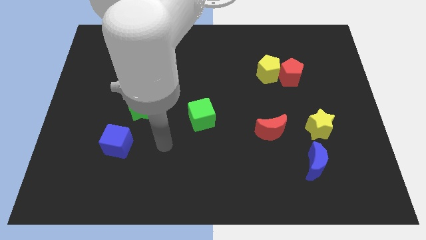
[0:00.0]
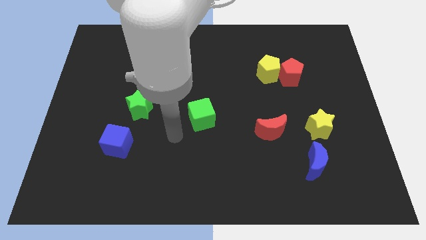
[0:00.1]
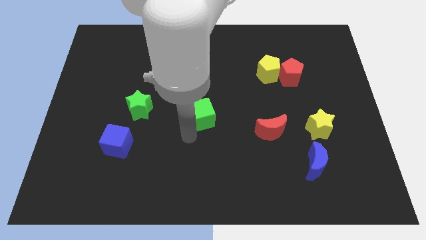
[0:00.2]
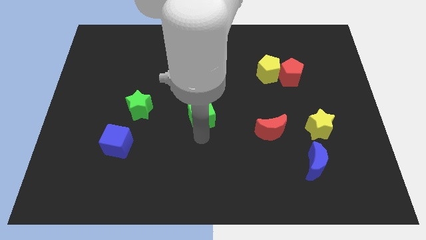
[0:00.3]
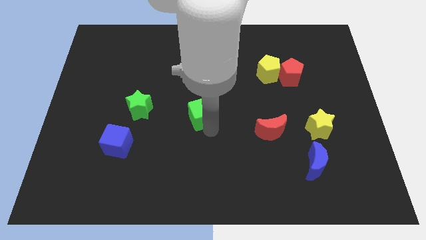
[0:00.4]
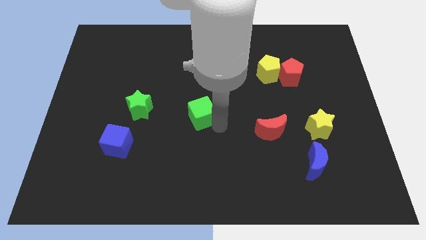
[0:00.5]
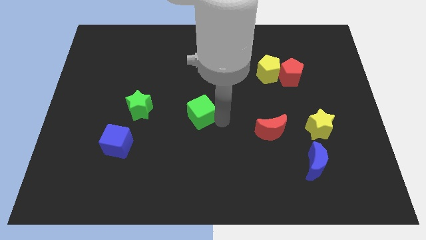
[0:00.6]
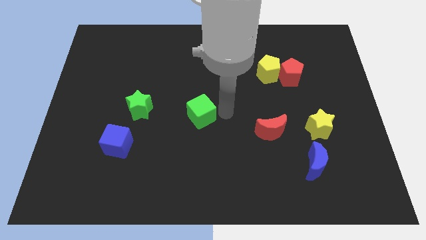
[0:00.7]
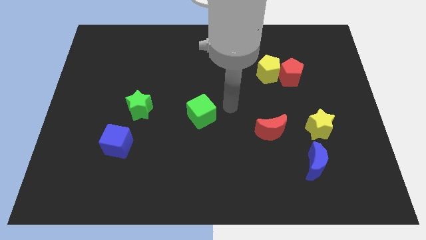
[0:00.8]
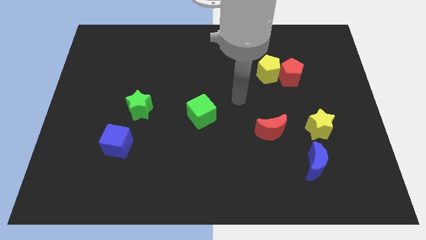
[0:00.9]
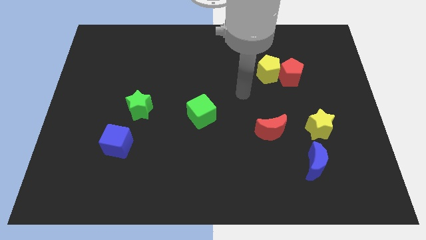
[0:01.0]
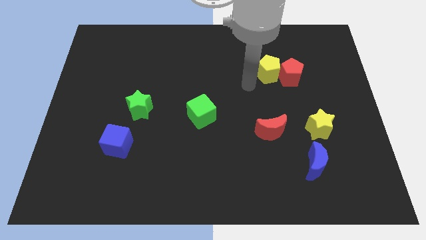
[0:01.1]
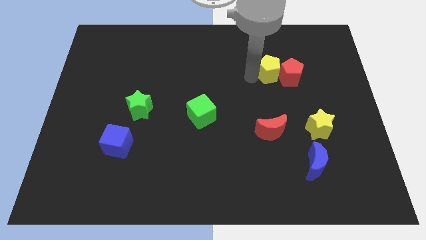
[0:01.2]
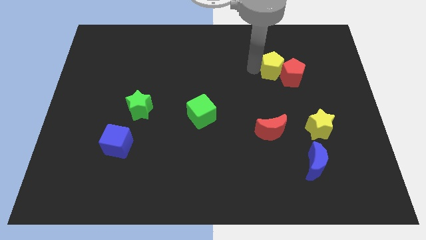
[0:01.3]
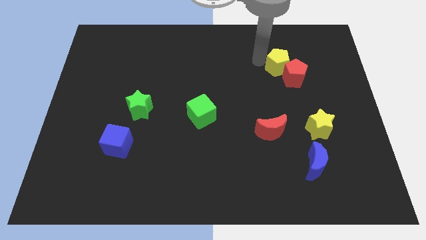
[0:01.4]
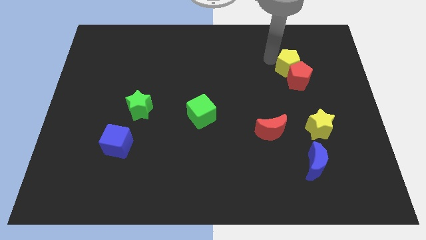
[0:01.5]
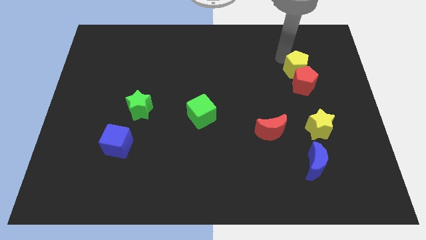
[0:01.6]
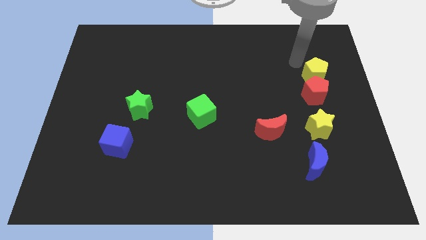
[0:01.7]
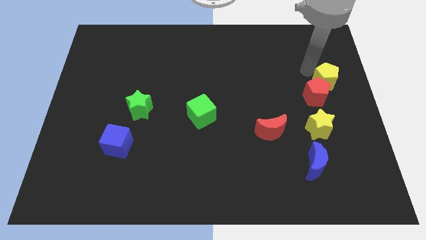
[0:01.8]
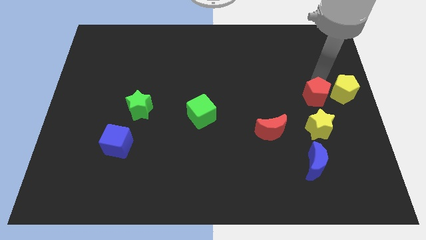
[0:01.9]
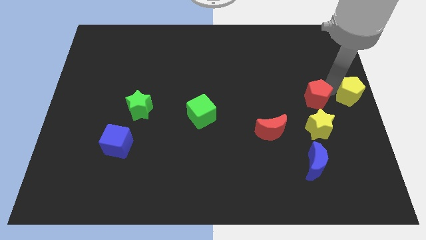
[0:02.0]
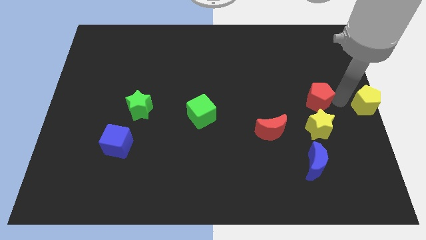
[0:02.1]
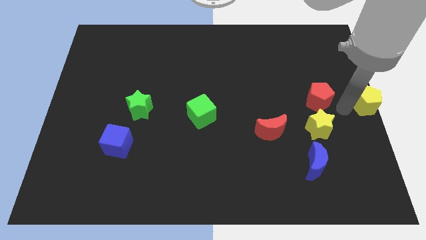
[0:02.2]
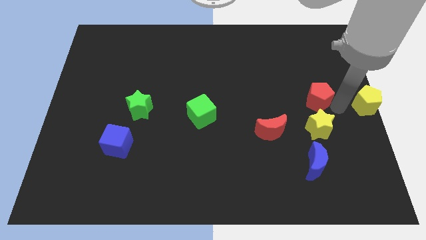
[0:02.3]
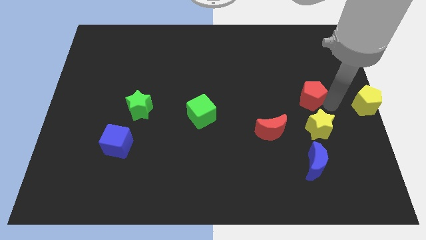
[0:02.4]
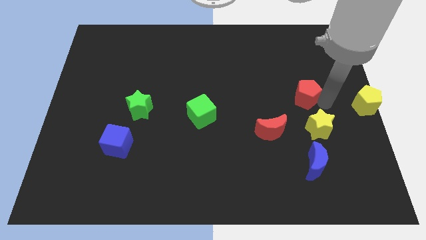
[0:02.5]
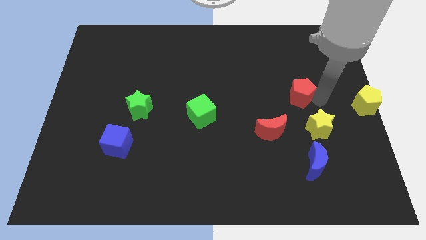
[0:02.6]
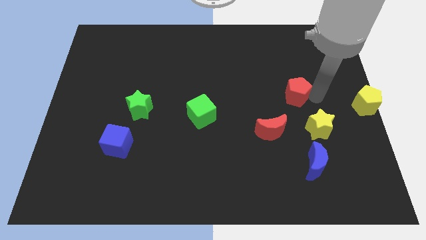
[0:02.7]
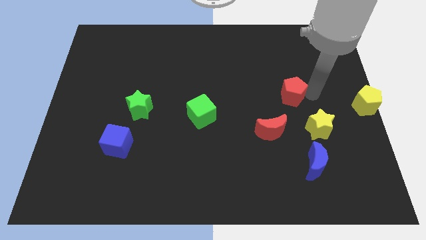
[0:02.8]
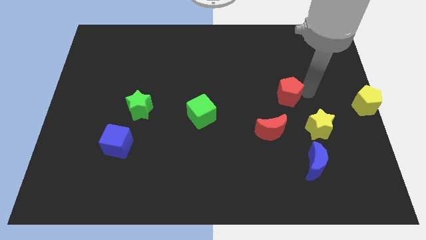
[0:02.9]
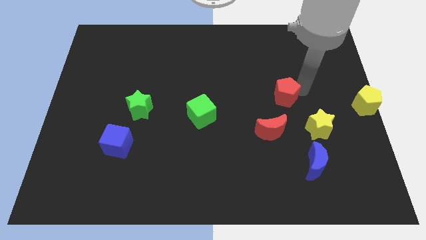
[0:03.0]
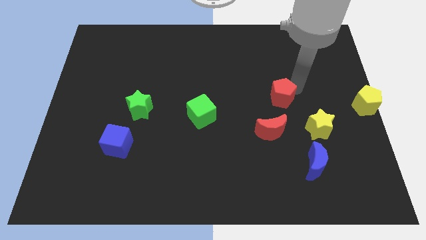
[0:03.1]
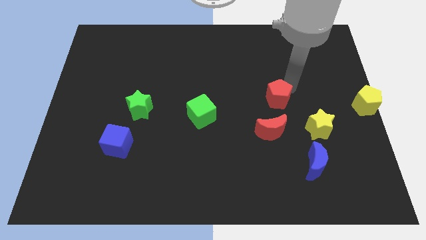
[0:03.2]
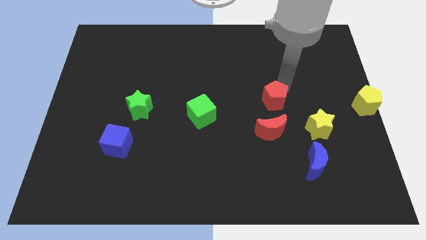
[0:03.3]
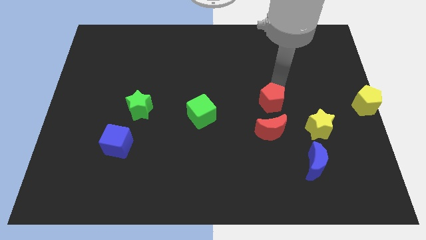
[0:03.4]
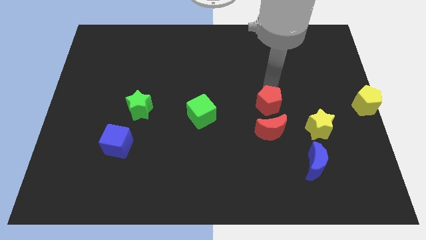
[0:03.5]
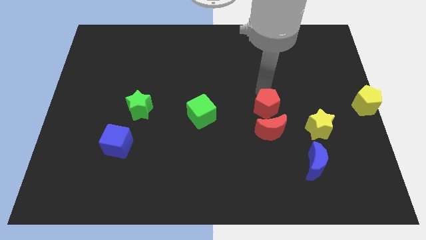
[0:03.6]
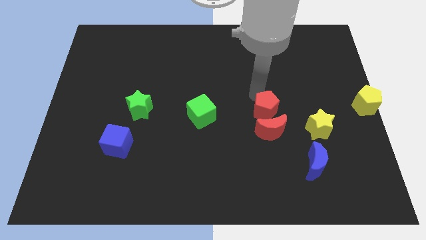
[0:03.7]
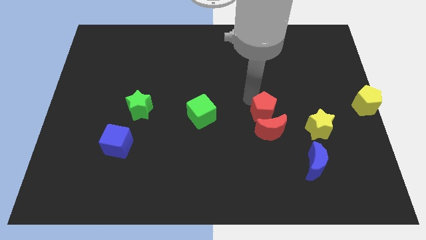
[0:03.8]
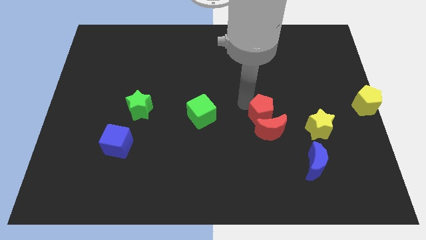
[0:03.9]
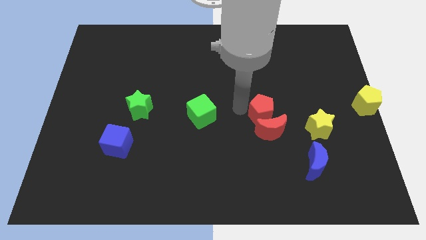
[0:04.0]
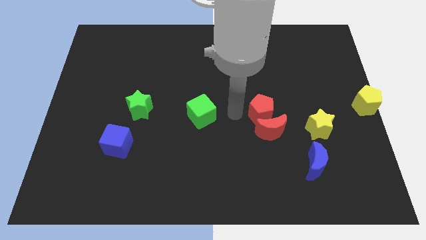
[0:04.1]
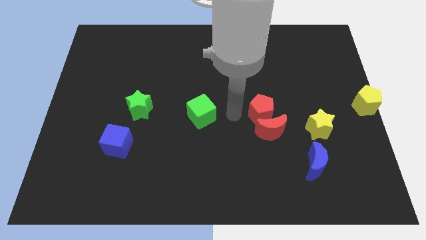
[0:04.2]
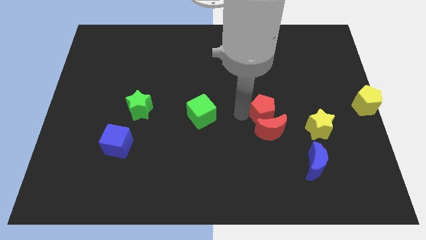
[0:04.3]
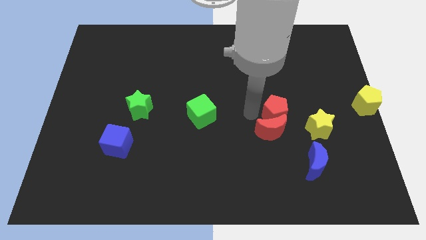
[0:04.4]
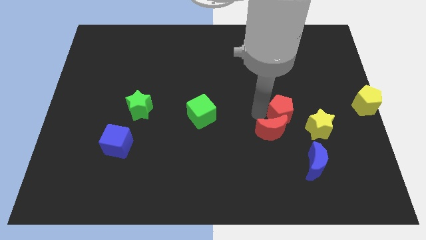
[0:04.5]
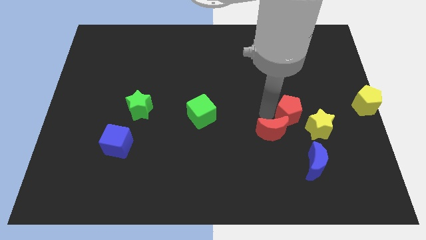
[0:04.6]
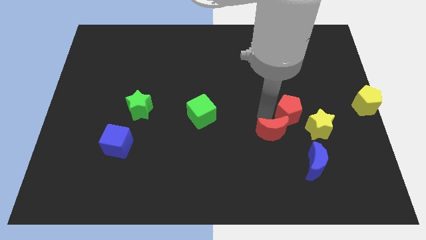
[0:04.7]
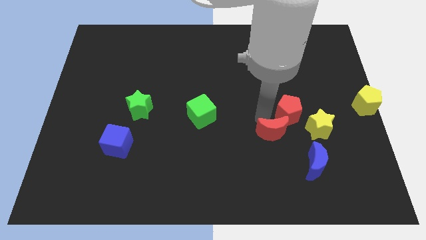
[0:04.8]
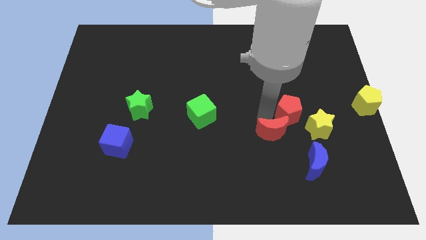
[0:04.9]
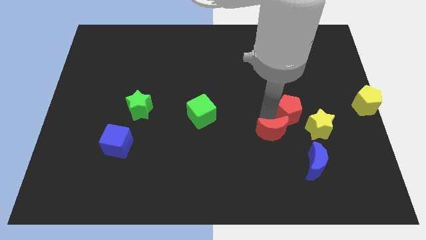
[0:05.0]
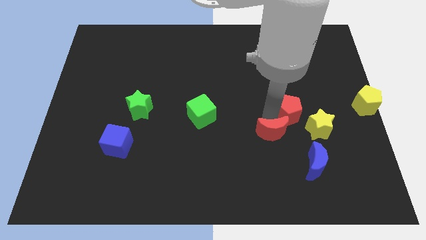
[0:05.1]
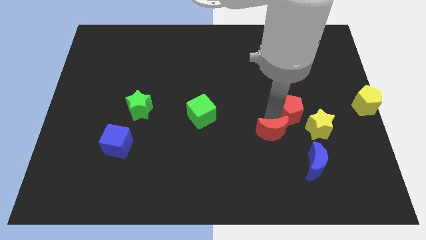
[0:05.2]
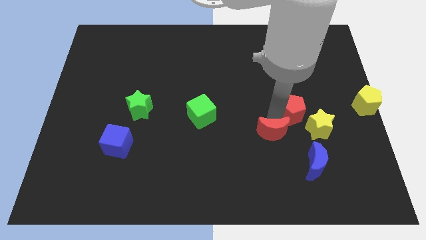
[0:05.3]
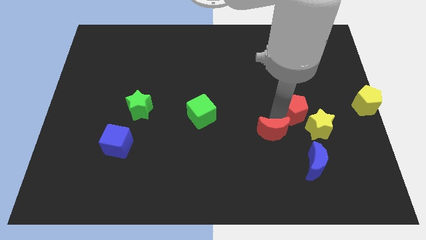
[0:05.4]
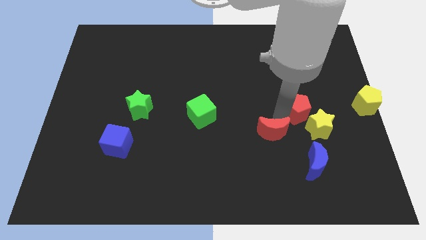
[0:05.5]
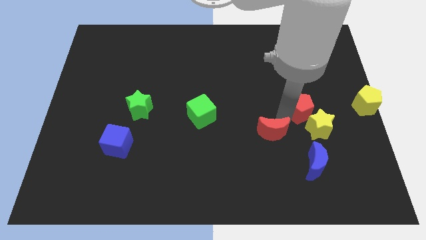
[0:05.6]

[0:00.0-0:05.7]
push the red pentagon towards the yellow star

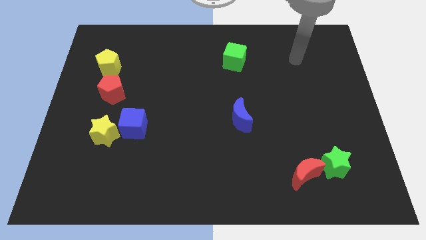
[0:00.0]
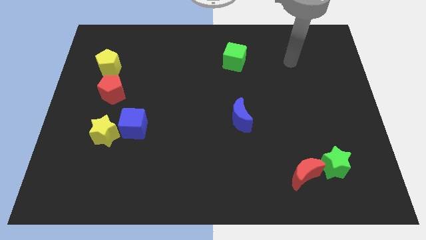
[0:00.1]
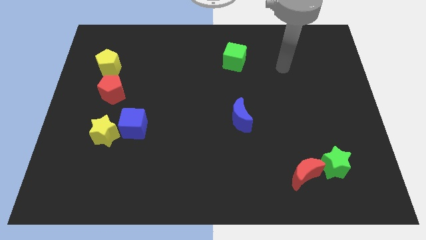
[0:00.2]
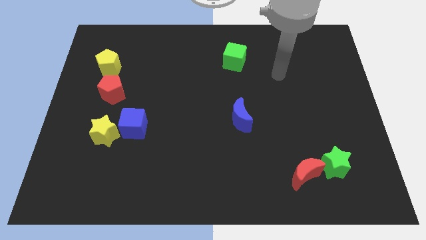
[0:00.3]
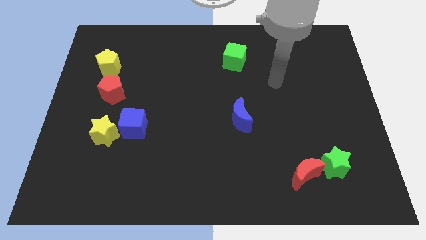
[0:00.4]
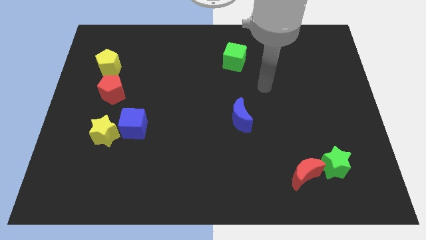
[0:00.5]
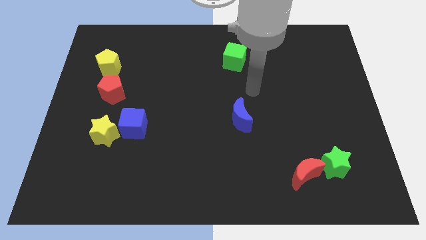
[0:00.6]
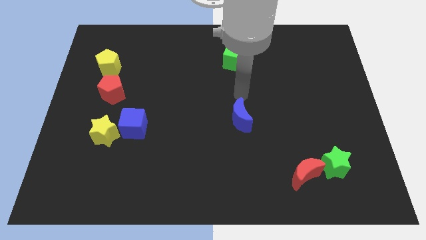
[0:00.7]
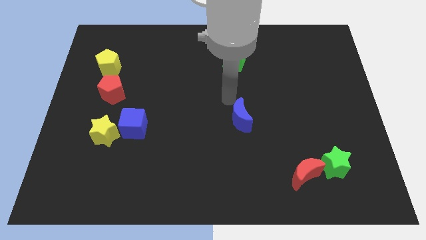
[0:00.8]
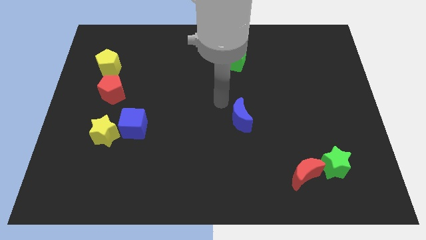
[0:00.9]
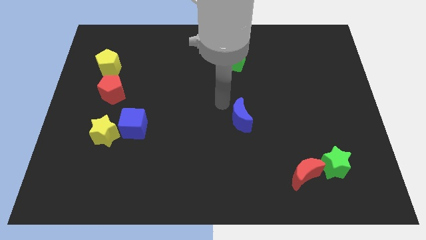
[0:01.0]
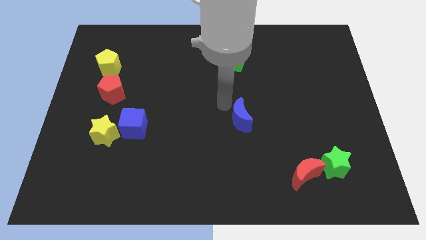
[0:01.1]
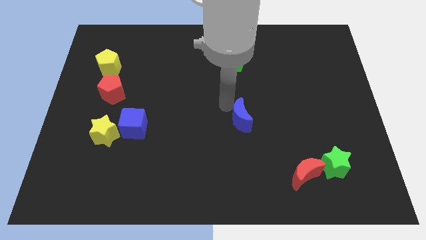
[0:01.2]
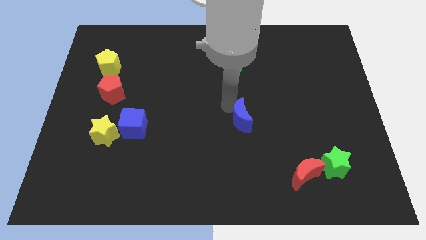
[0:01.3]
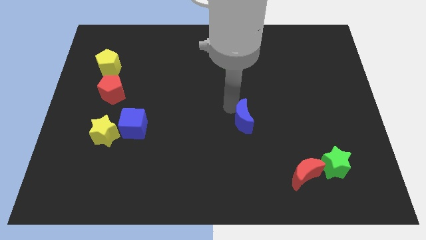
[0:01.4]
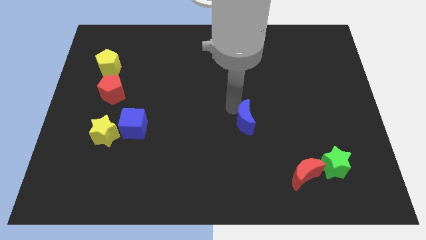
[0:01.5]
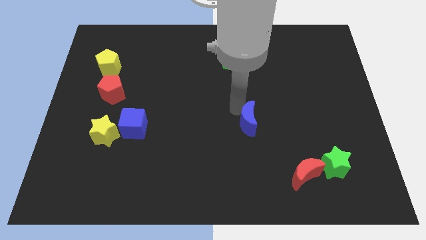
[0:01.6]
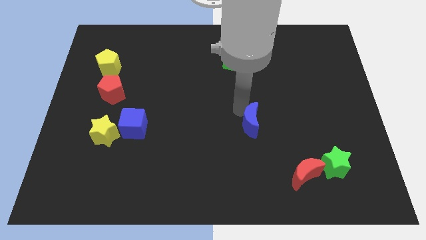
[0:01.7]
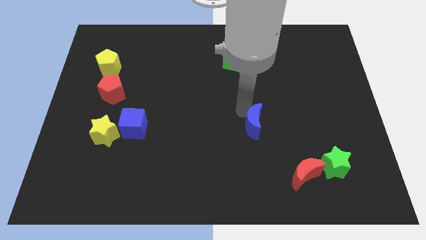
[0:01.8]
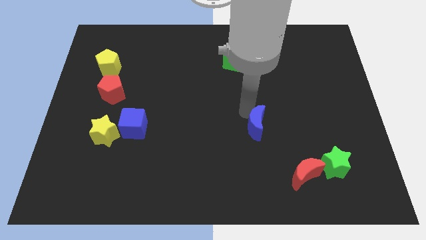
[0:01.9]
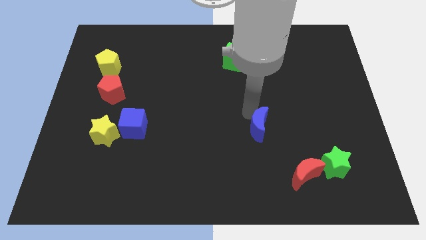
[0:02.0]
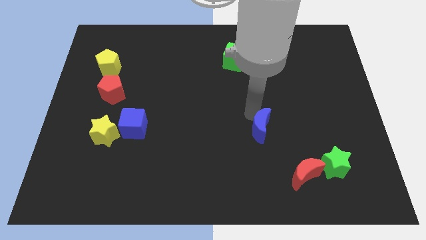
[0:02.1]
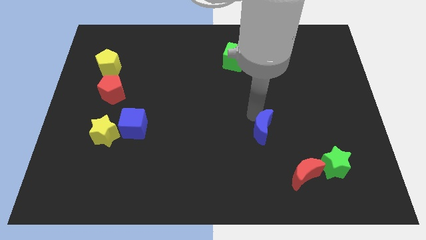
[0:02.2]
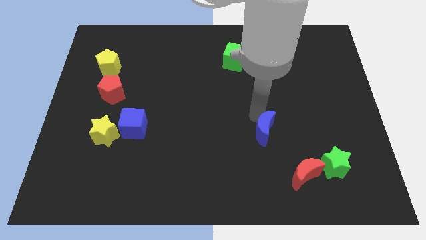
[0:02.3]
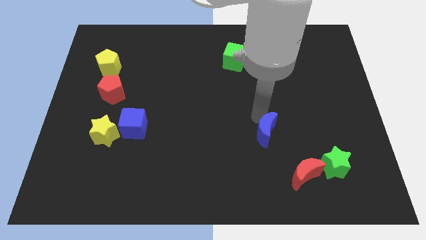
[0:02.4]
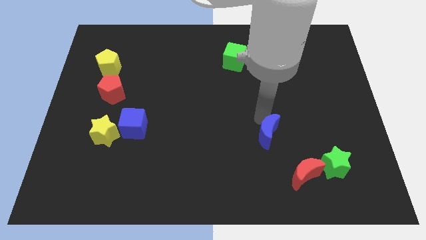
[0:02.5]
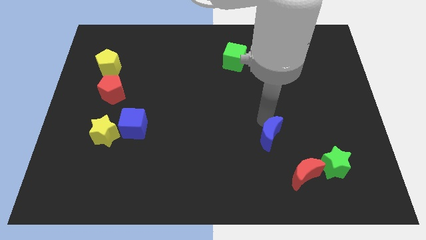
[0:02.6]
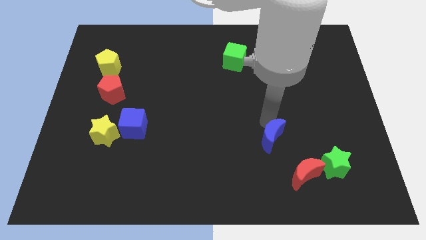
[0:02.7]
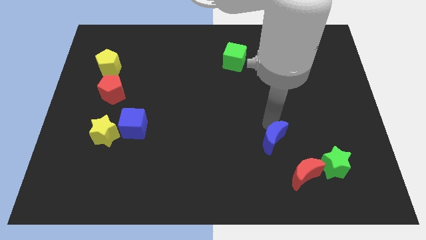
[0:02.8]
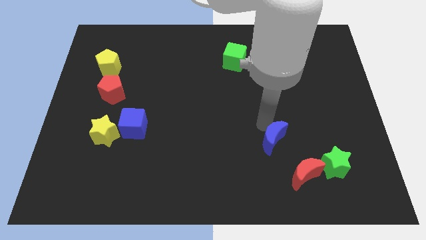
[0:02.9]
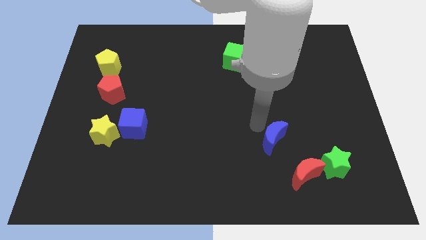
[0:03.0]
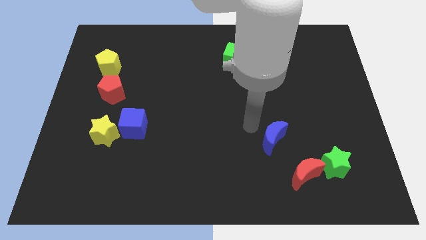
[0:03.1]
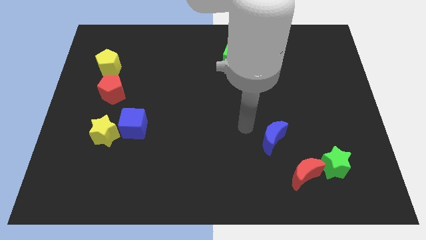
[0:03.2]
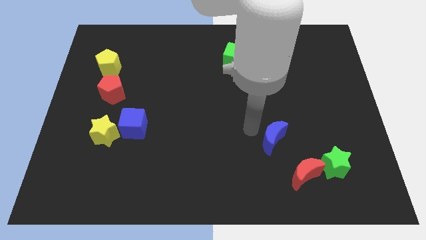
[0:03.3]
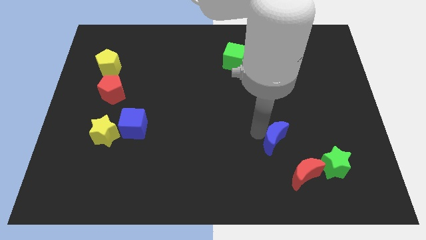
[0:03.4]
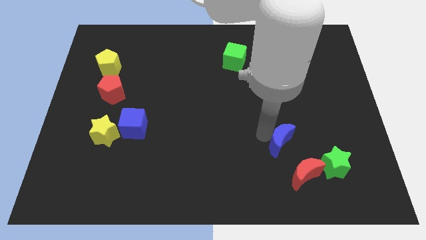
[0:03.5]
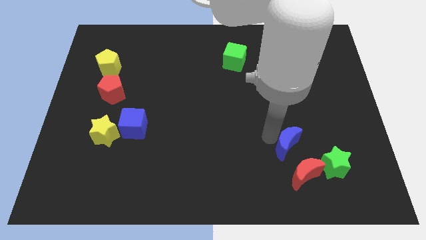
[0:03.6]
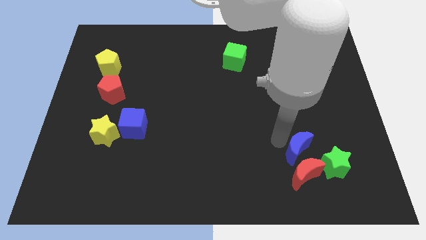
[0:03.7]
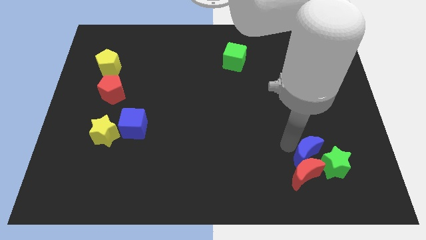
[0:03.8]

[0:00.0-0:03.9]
slide the blue moon close to the green star
